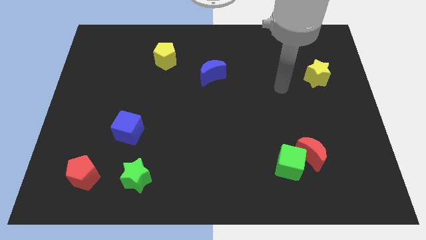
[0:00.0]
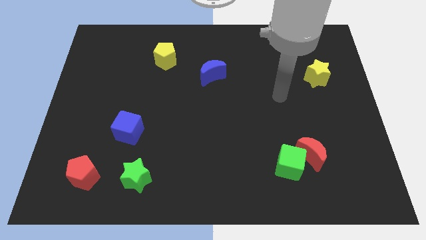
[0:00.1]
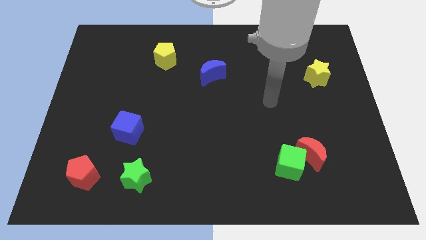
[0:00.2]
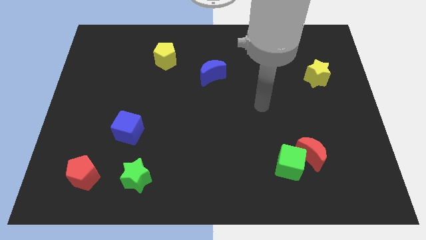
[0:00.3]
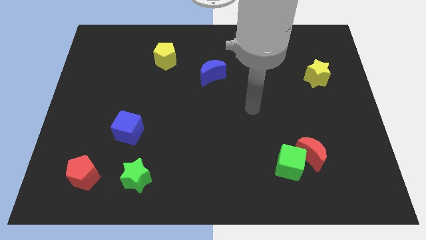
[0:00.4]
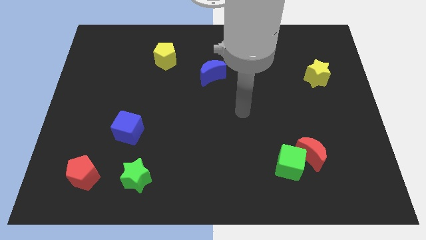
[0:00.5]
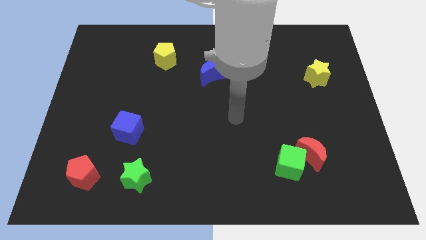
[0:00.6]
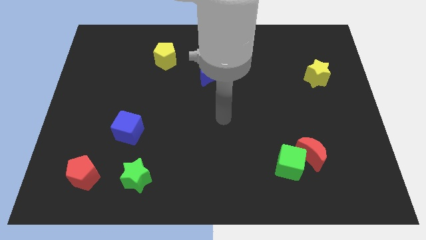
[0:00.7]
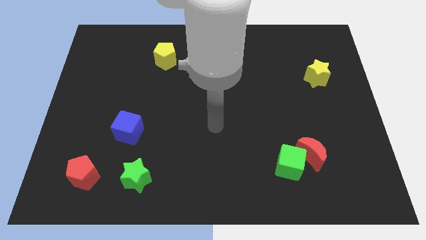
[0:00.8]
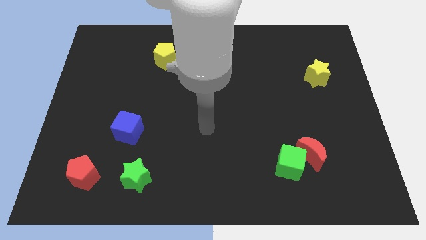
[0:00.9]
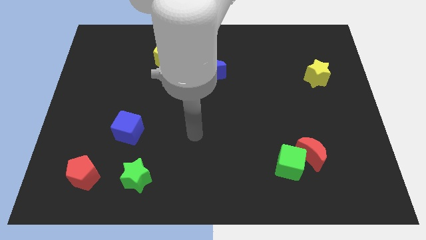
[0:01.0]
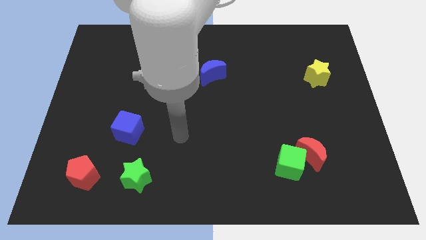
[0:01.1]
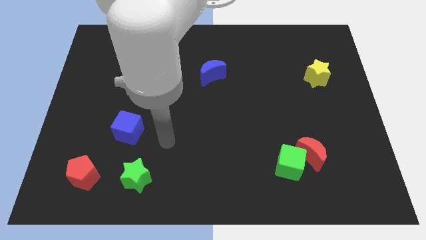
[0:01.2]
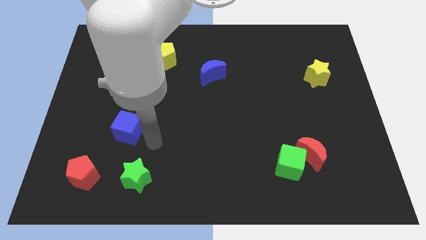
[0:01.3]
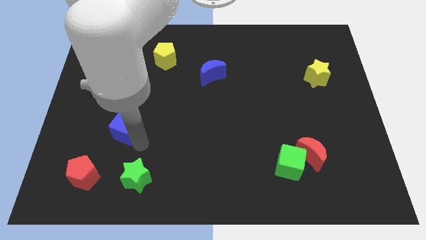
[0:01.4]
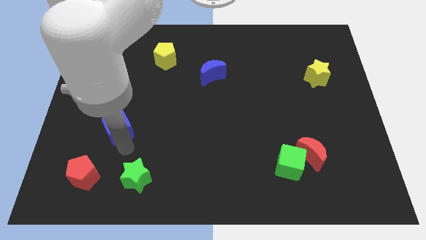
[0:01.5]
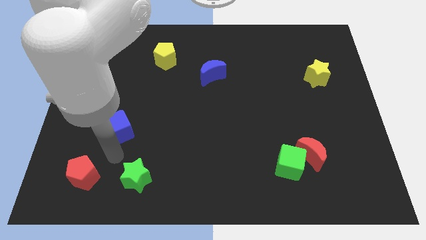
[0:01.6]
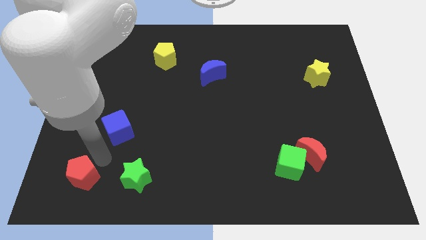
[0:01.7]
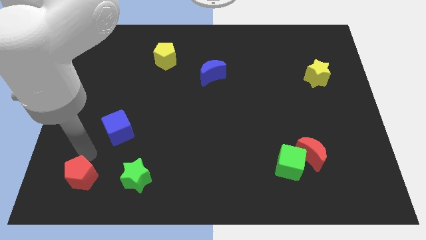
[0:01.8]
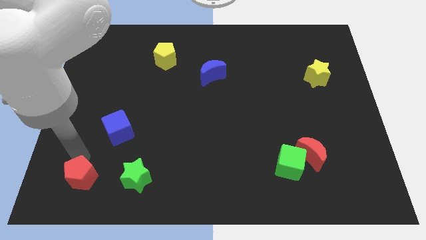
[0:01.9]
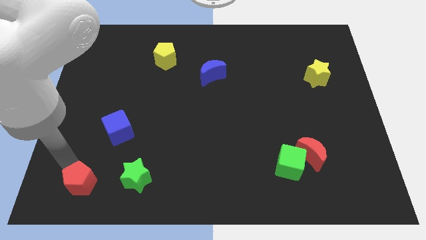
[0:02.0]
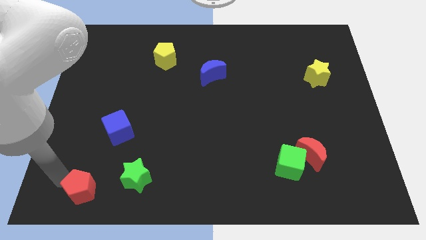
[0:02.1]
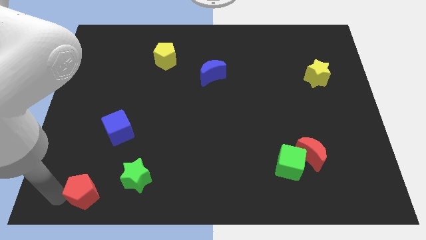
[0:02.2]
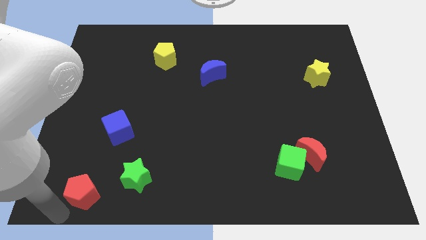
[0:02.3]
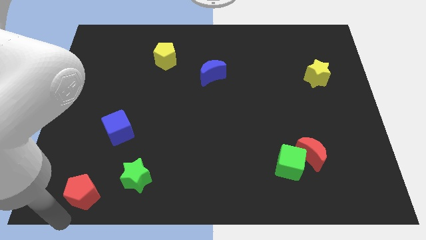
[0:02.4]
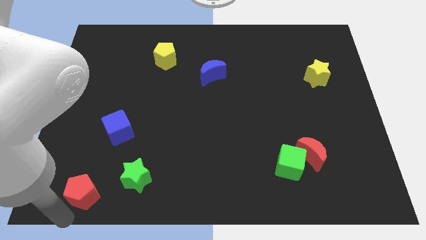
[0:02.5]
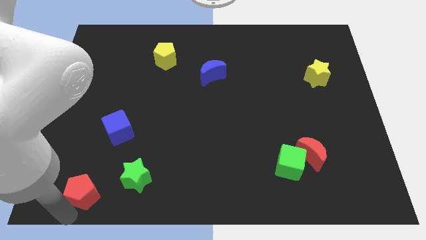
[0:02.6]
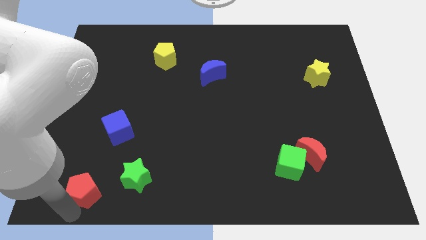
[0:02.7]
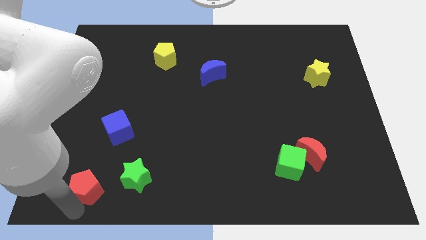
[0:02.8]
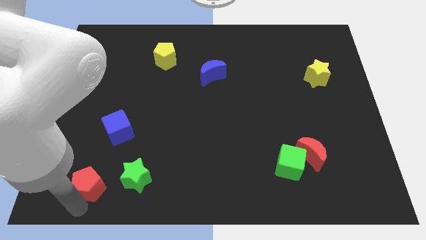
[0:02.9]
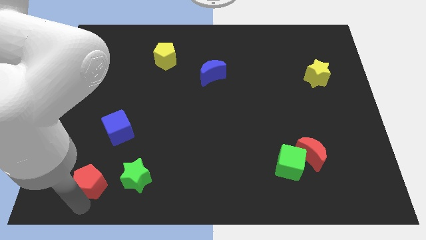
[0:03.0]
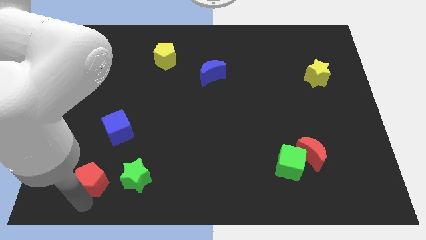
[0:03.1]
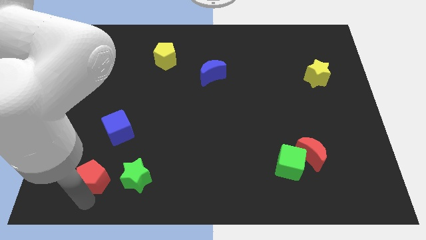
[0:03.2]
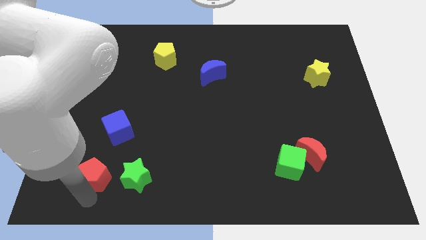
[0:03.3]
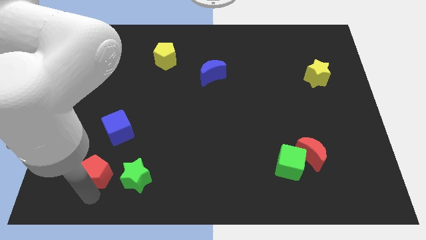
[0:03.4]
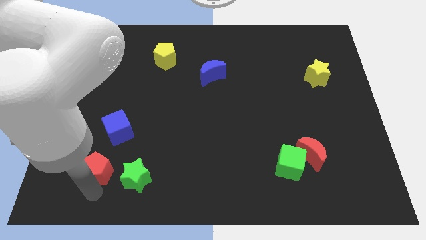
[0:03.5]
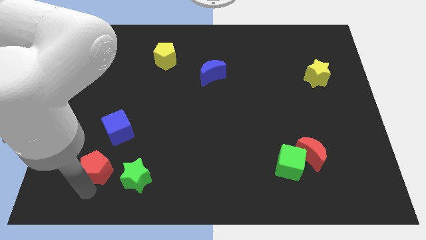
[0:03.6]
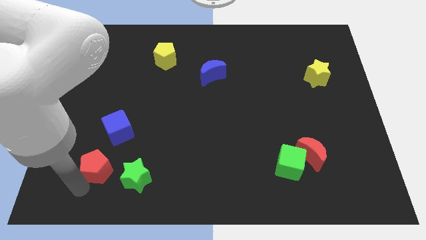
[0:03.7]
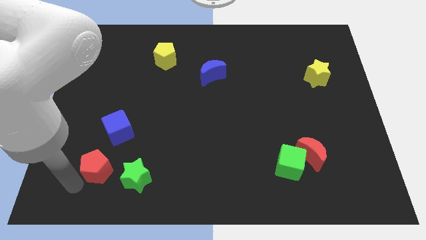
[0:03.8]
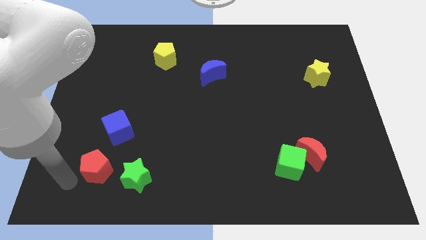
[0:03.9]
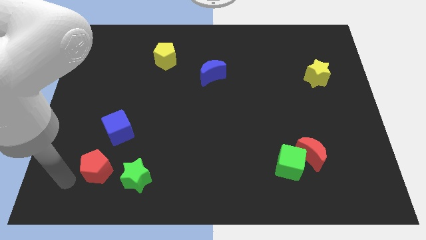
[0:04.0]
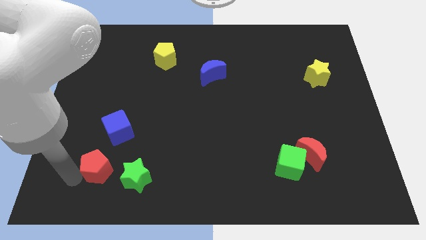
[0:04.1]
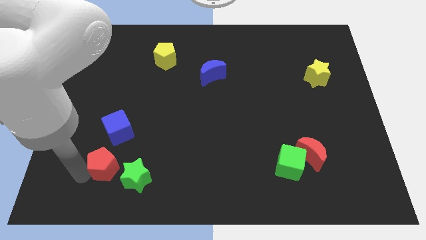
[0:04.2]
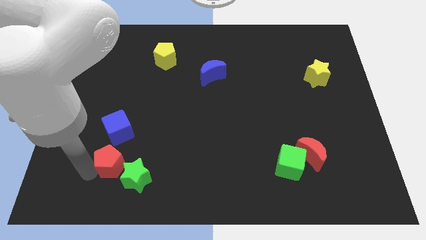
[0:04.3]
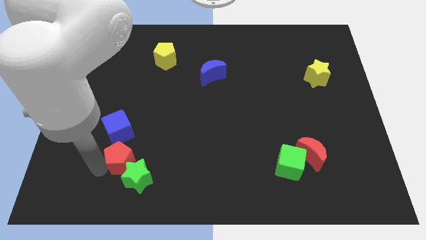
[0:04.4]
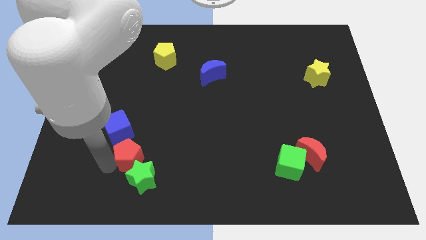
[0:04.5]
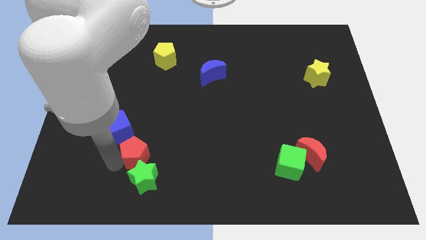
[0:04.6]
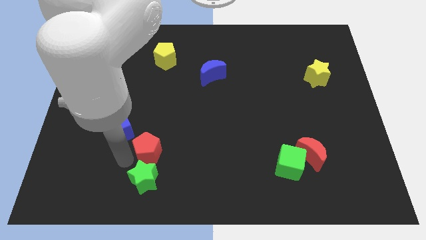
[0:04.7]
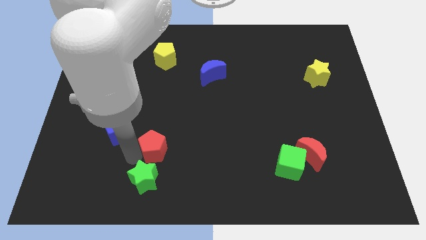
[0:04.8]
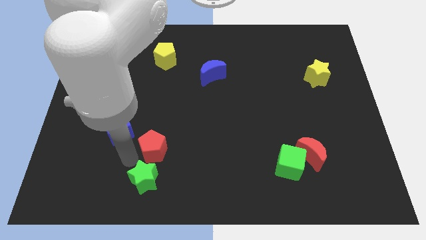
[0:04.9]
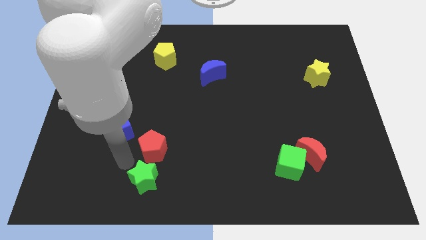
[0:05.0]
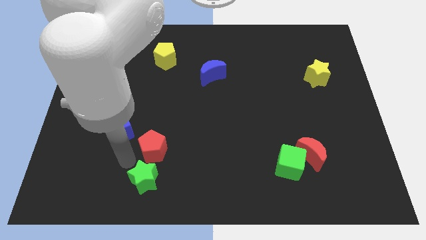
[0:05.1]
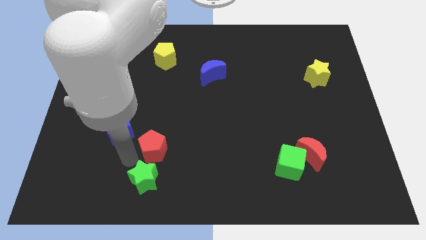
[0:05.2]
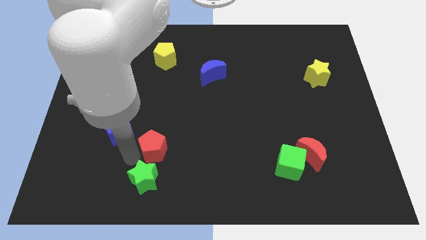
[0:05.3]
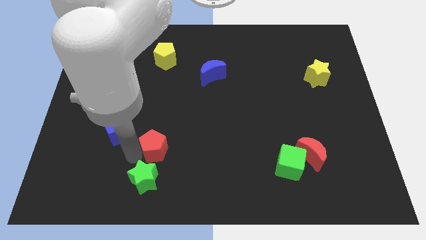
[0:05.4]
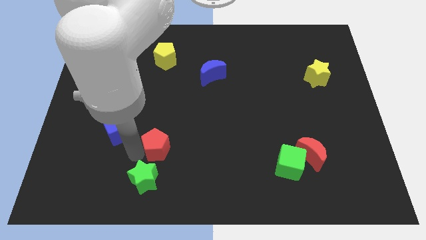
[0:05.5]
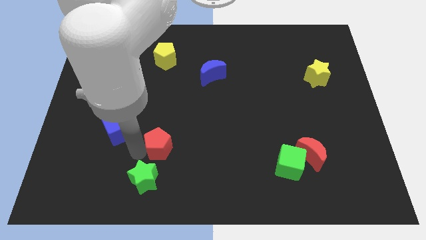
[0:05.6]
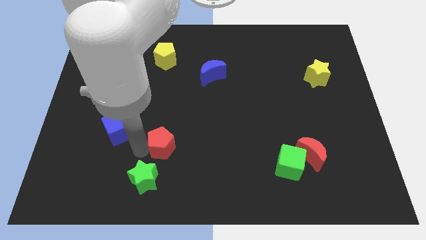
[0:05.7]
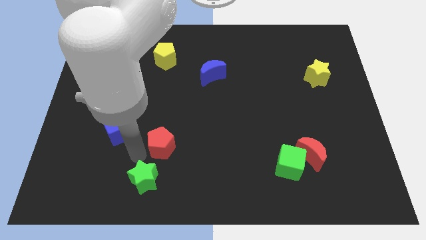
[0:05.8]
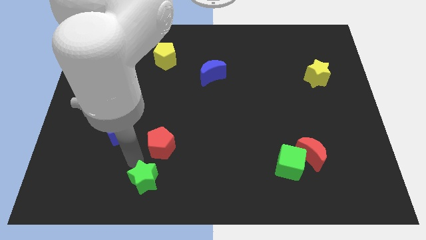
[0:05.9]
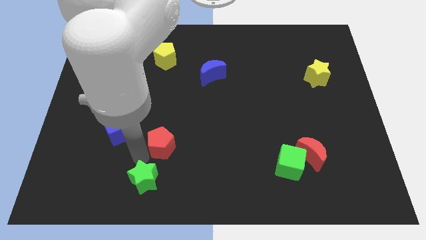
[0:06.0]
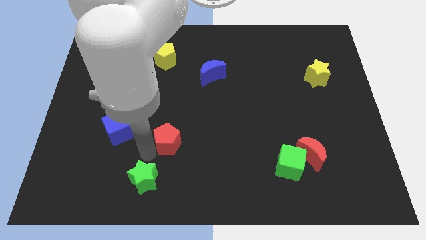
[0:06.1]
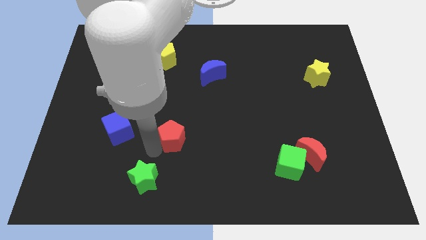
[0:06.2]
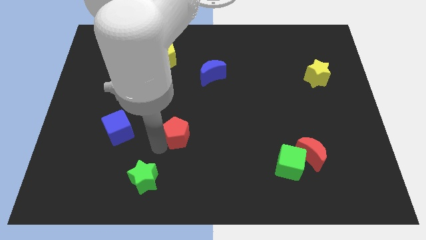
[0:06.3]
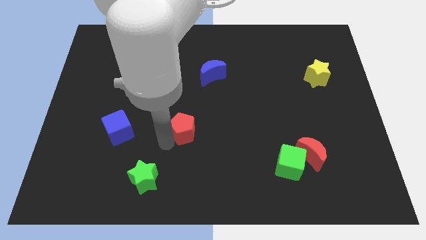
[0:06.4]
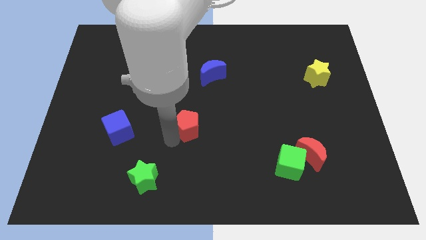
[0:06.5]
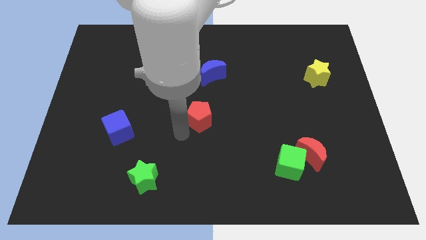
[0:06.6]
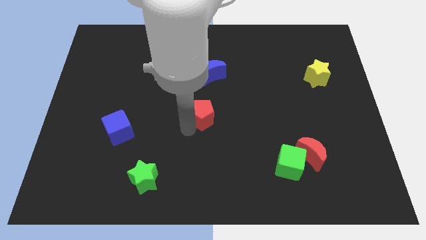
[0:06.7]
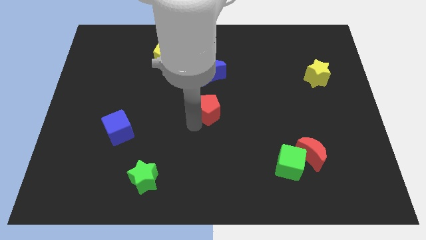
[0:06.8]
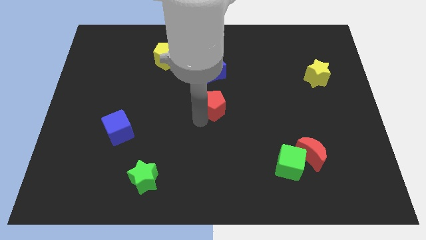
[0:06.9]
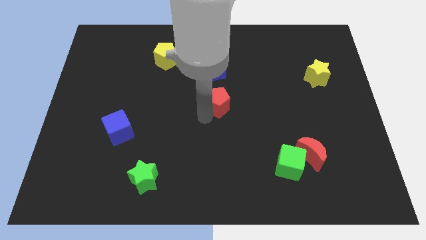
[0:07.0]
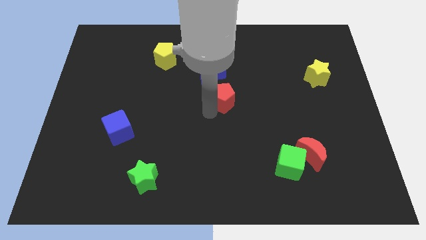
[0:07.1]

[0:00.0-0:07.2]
move the red pentagon diagonally down and to the right of the blue moon
